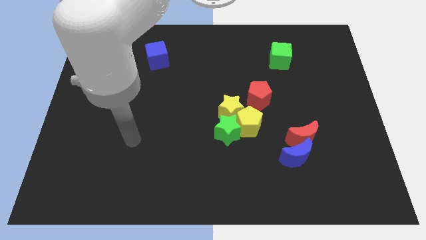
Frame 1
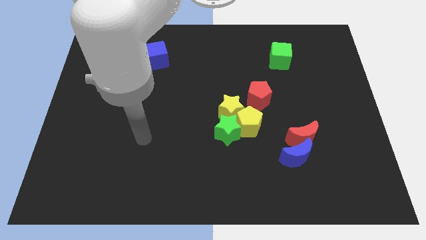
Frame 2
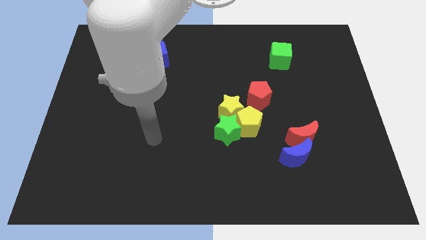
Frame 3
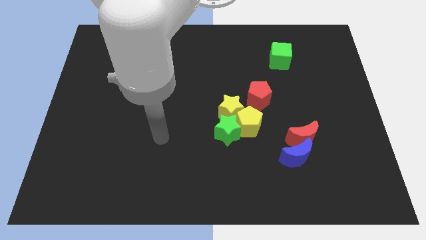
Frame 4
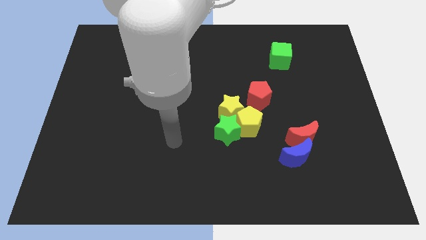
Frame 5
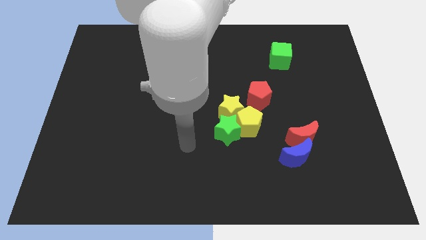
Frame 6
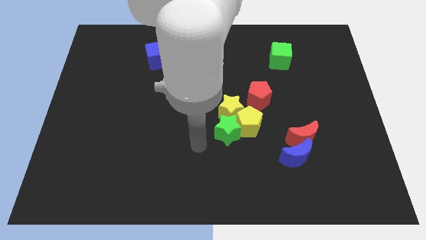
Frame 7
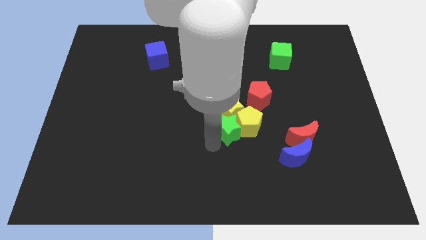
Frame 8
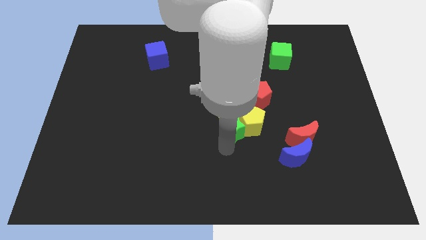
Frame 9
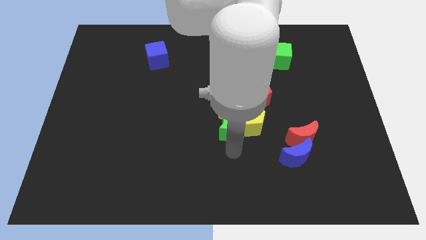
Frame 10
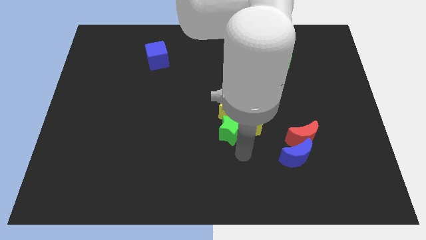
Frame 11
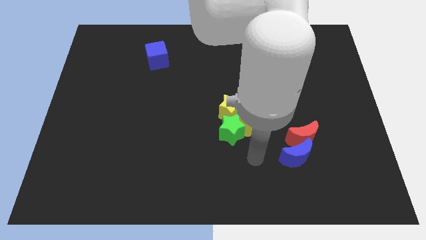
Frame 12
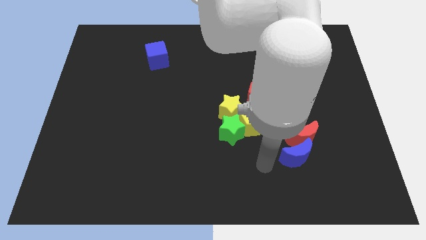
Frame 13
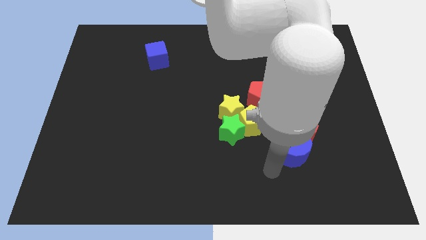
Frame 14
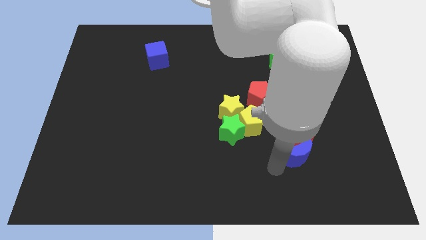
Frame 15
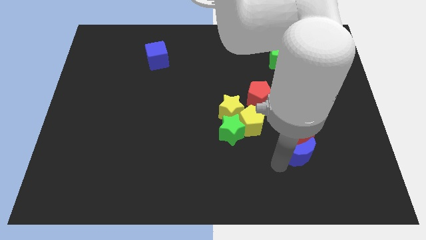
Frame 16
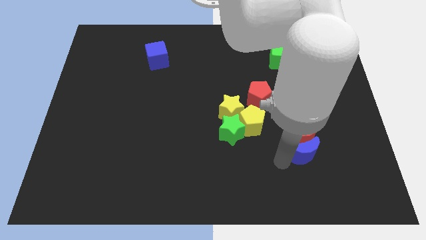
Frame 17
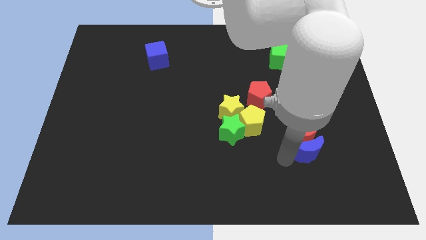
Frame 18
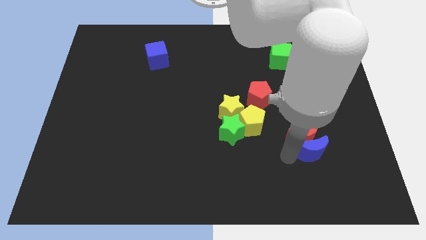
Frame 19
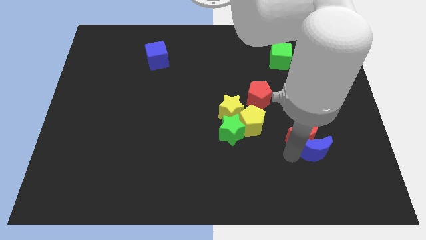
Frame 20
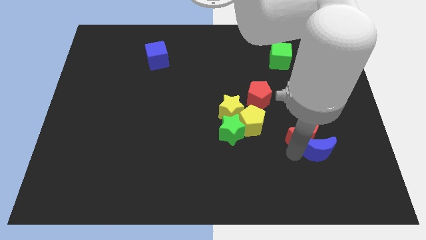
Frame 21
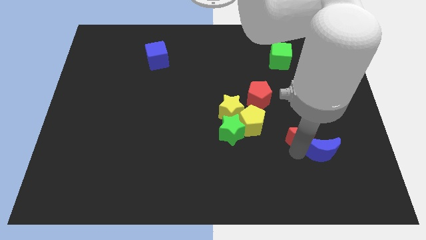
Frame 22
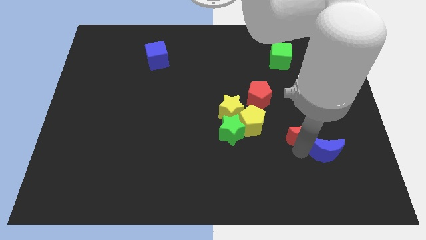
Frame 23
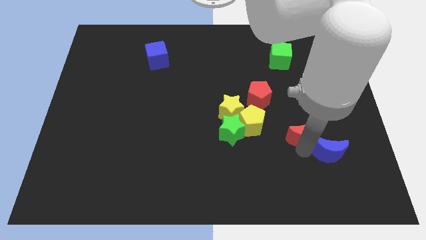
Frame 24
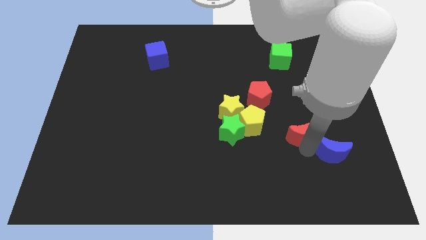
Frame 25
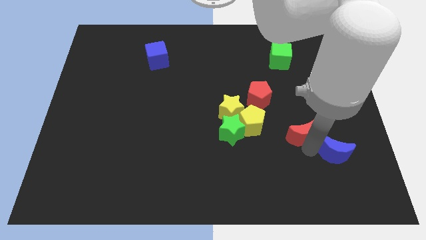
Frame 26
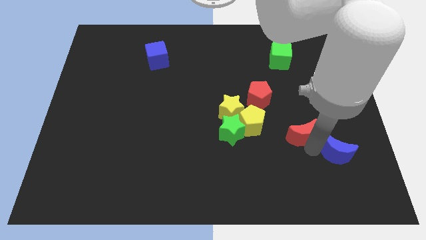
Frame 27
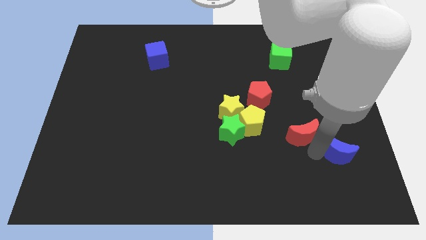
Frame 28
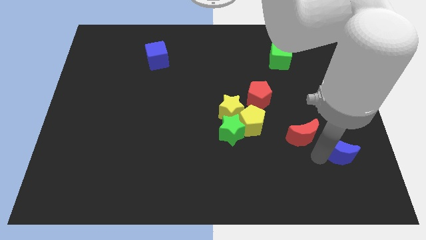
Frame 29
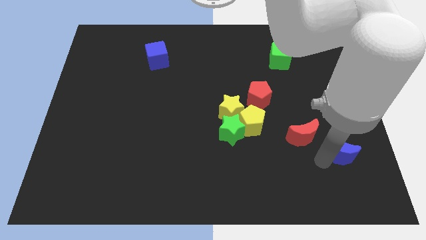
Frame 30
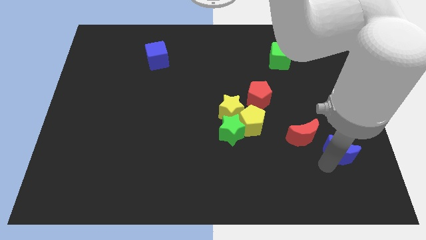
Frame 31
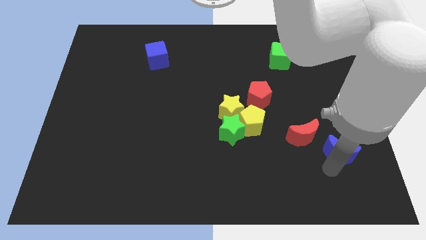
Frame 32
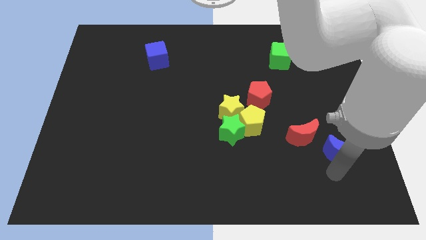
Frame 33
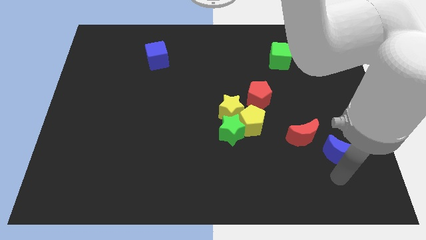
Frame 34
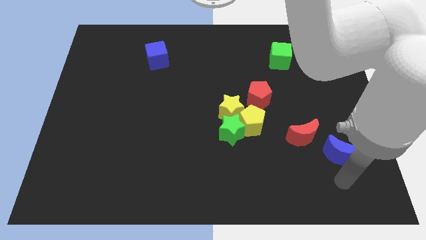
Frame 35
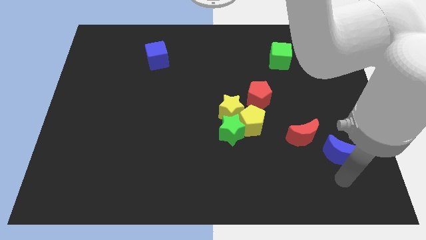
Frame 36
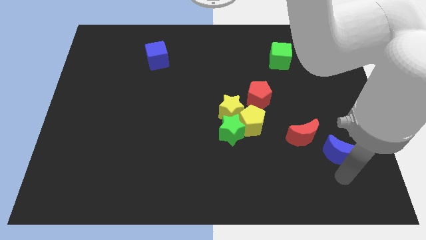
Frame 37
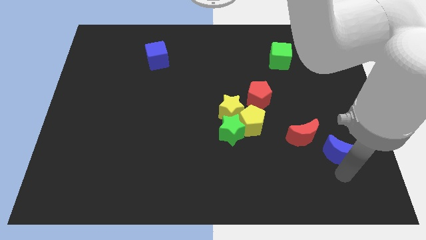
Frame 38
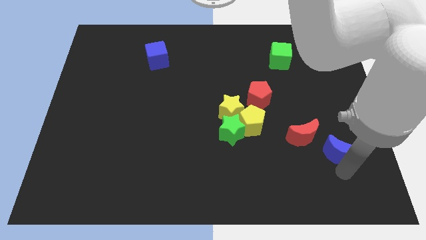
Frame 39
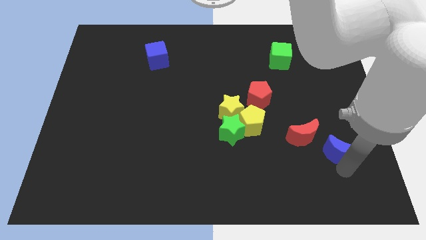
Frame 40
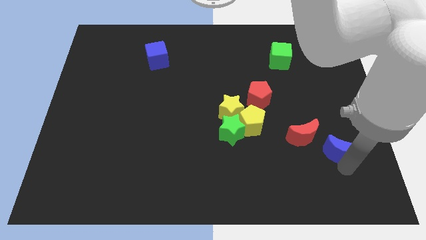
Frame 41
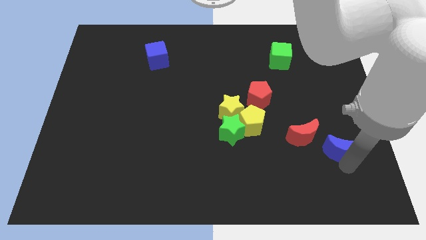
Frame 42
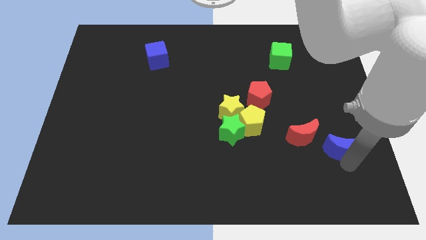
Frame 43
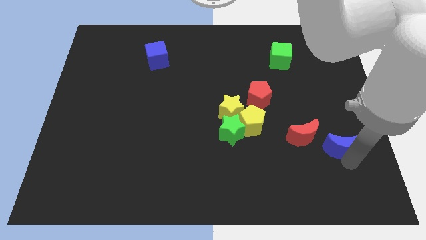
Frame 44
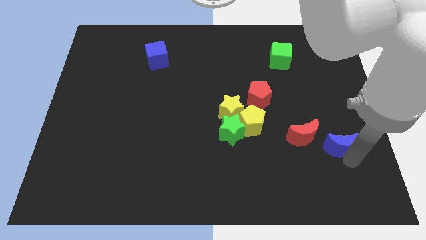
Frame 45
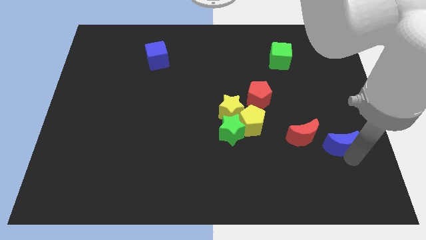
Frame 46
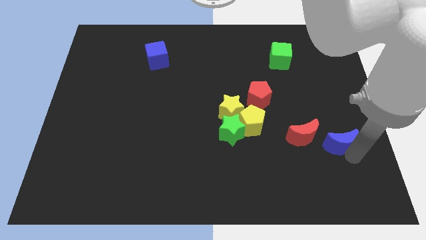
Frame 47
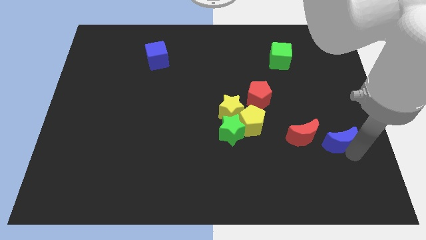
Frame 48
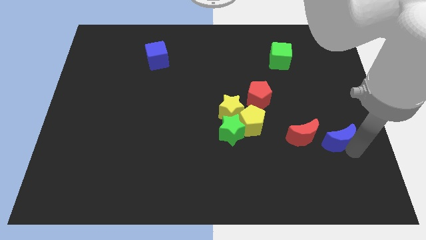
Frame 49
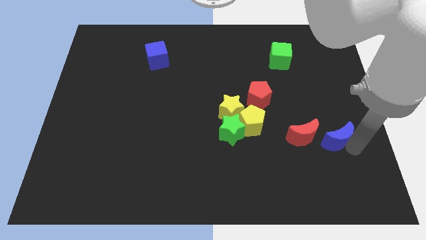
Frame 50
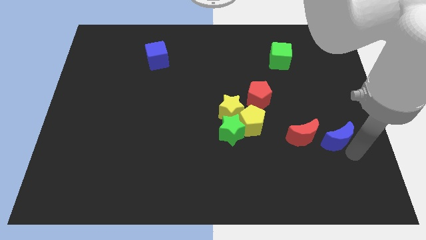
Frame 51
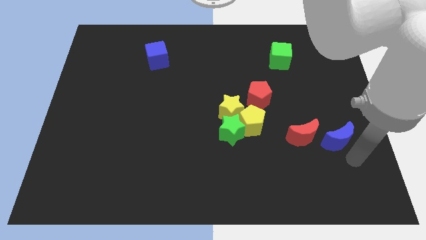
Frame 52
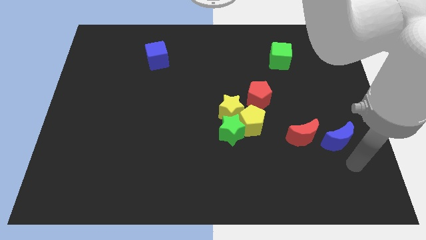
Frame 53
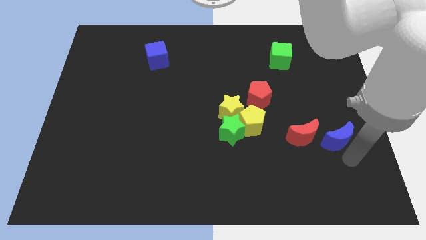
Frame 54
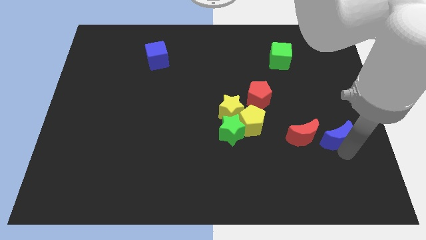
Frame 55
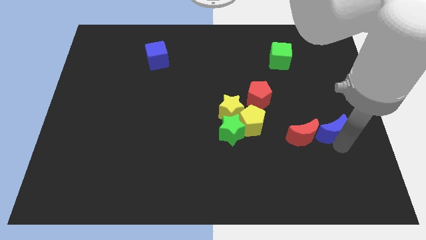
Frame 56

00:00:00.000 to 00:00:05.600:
push the blue moon diagonally up and to the right of the red moon

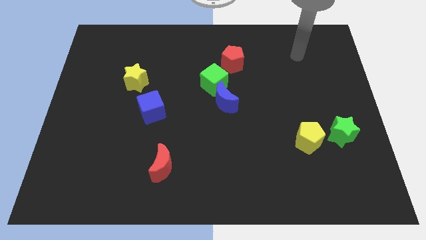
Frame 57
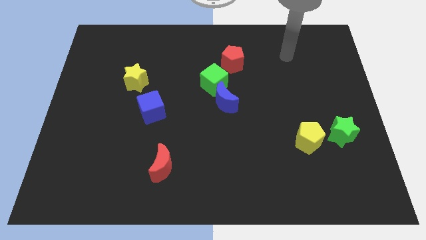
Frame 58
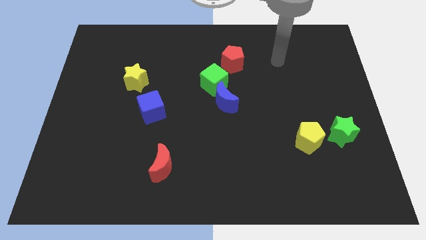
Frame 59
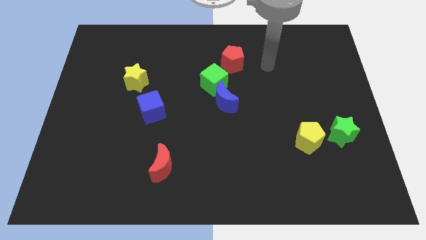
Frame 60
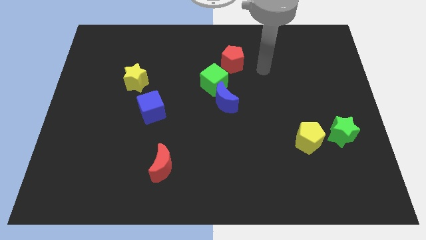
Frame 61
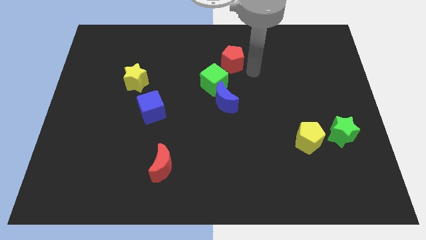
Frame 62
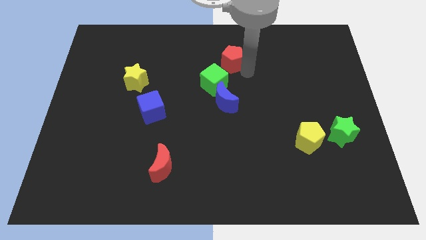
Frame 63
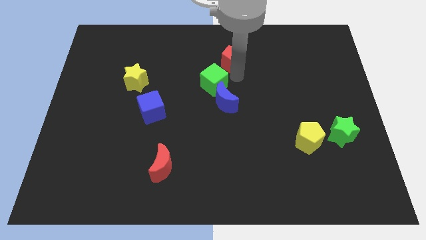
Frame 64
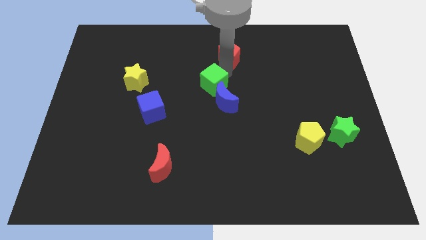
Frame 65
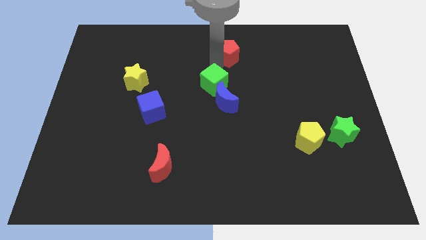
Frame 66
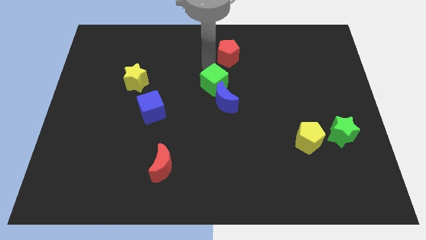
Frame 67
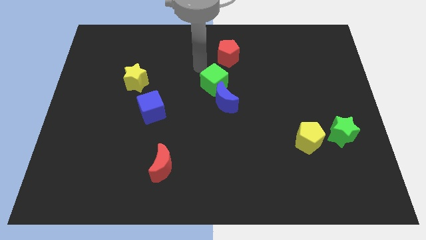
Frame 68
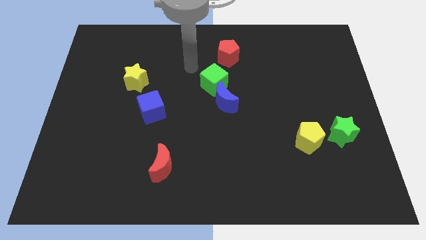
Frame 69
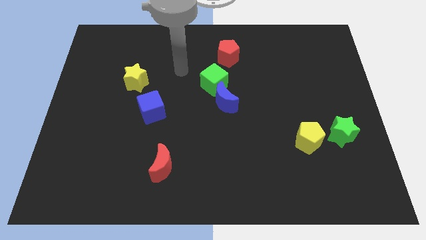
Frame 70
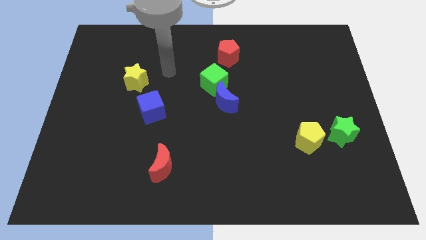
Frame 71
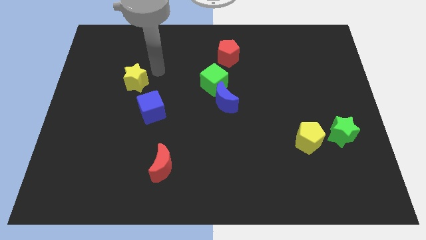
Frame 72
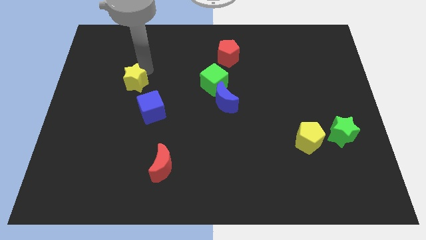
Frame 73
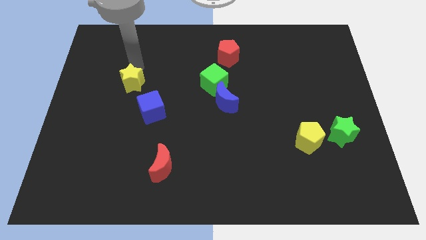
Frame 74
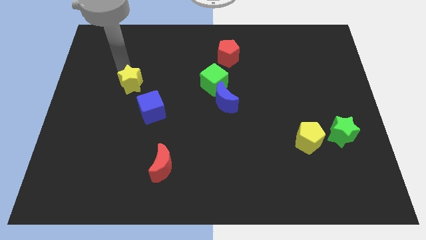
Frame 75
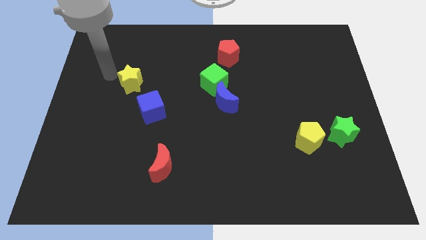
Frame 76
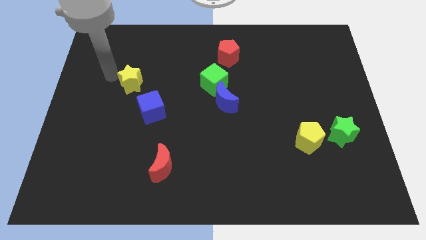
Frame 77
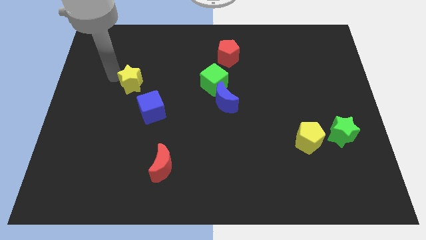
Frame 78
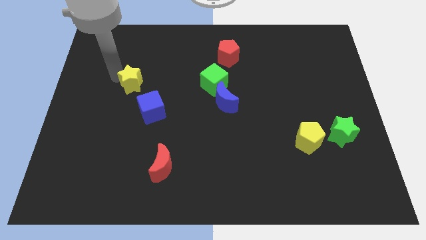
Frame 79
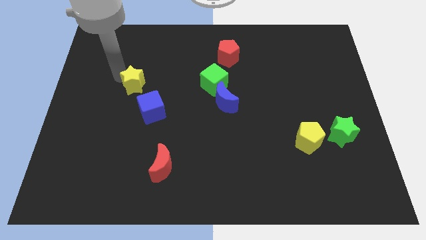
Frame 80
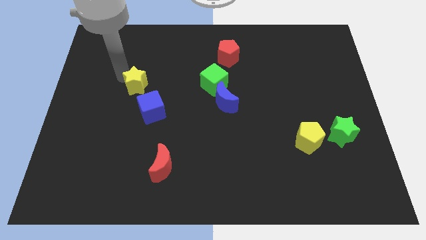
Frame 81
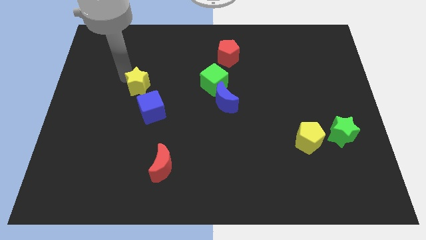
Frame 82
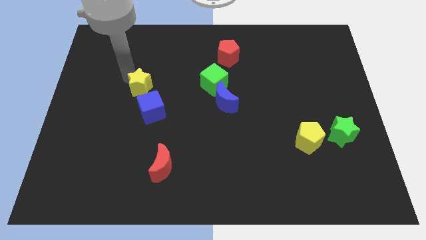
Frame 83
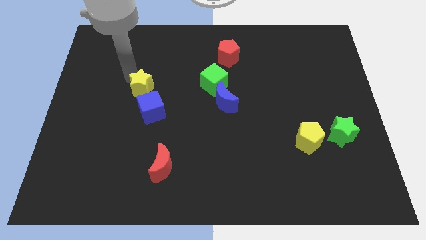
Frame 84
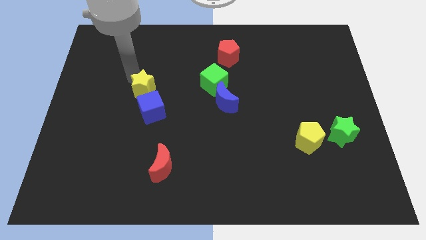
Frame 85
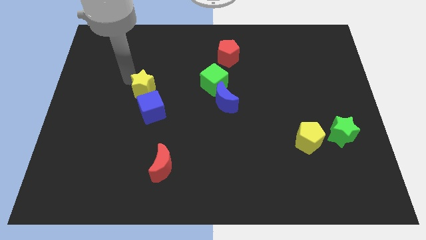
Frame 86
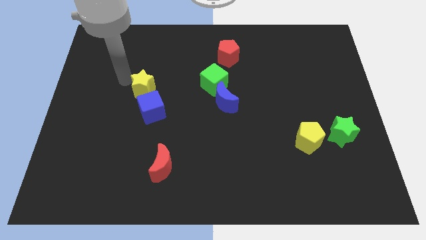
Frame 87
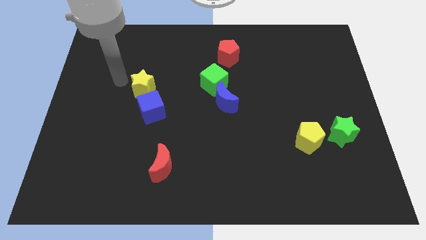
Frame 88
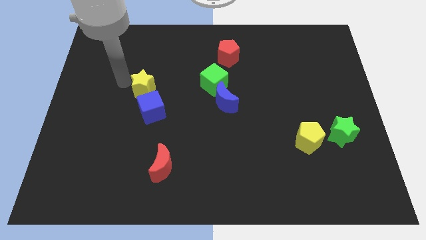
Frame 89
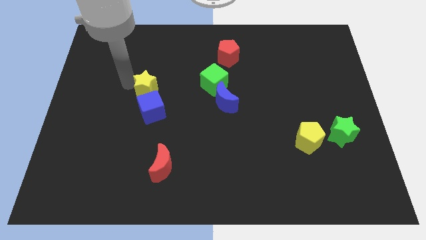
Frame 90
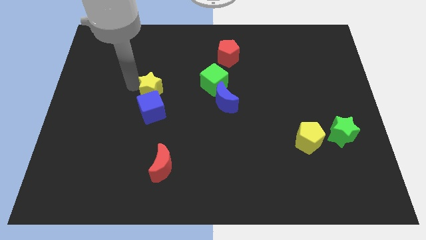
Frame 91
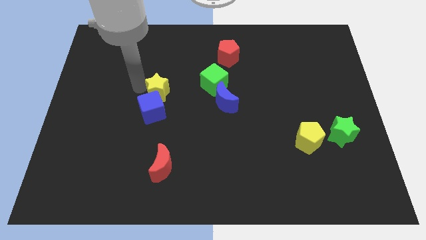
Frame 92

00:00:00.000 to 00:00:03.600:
slide the yellow star diagonally up and to the right of the blue cube
